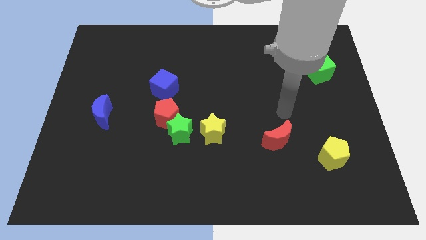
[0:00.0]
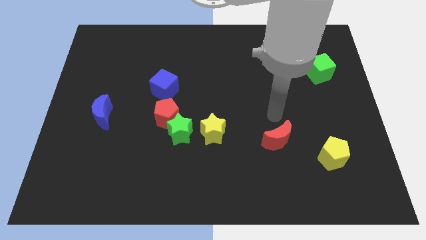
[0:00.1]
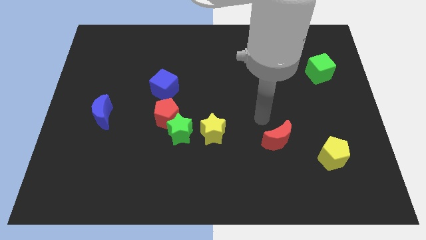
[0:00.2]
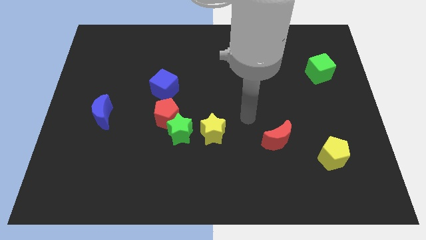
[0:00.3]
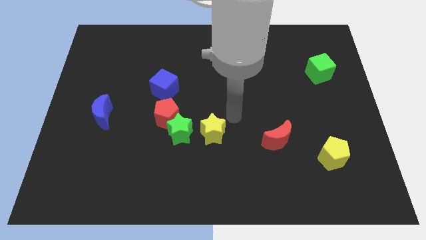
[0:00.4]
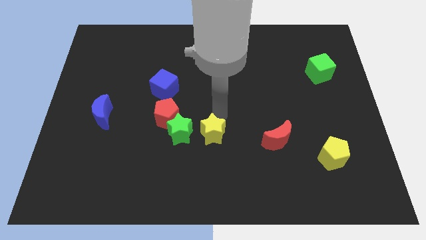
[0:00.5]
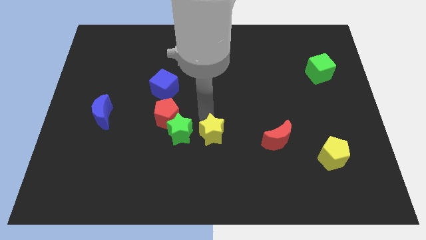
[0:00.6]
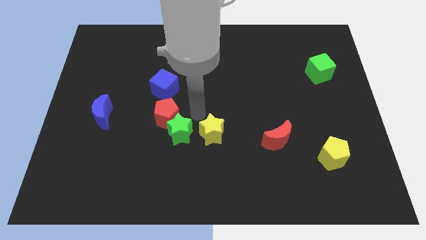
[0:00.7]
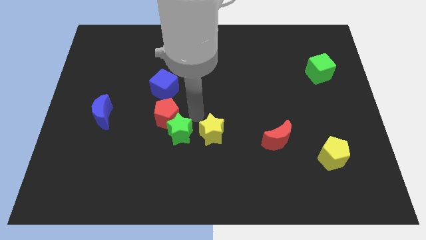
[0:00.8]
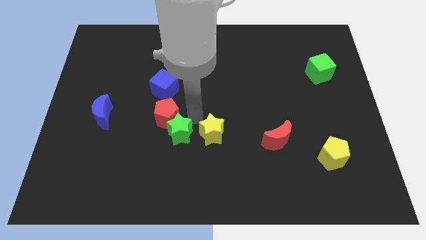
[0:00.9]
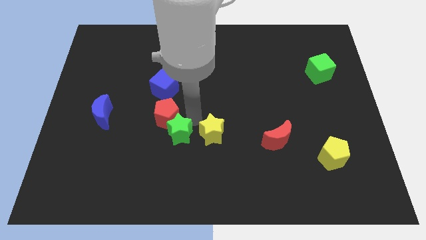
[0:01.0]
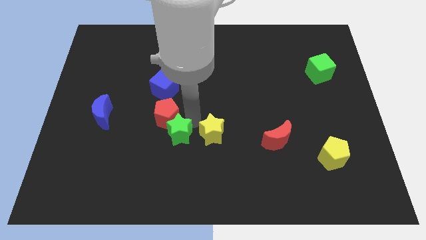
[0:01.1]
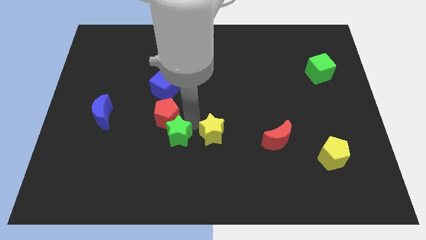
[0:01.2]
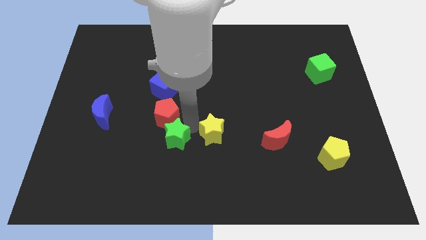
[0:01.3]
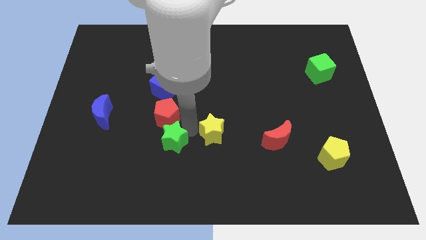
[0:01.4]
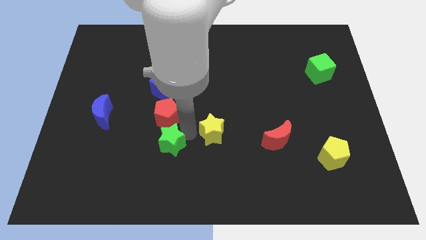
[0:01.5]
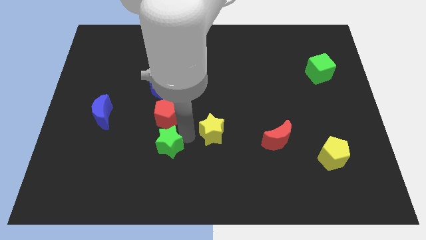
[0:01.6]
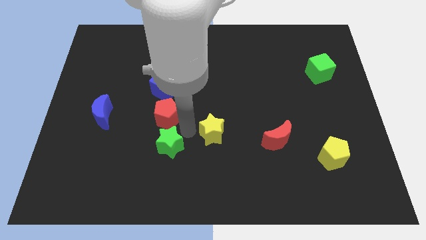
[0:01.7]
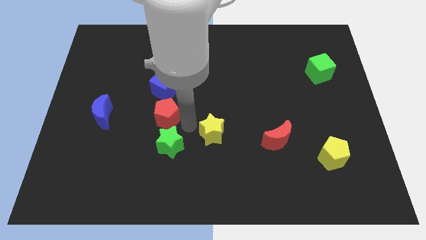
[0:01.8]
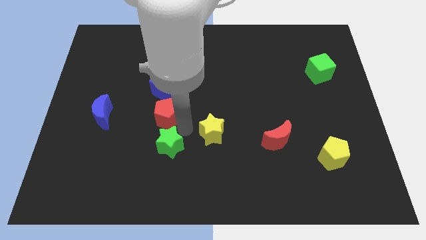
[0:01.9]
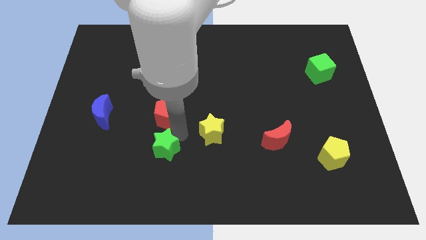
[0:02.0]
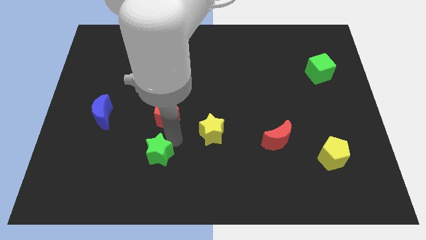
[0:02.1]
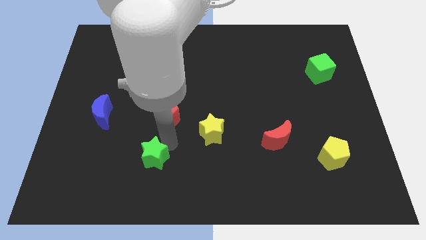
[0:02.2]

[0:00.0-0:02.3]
pull the green star apart from the red pentagon and yellow star

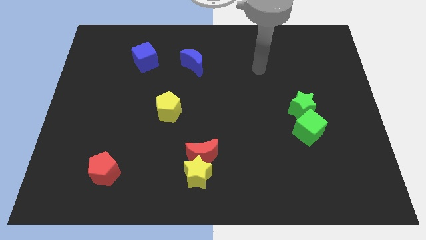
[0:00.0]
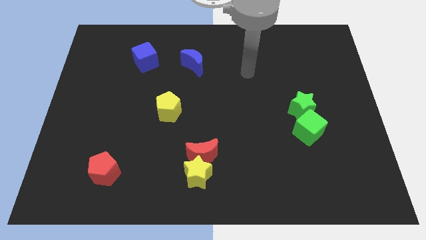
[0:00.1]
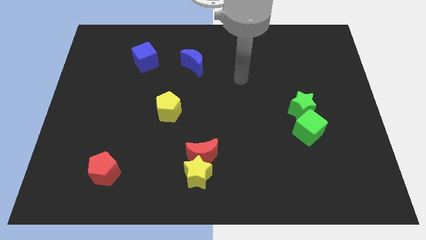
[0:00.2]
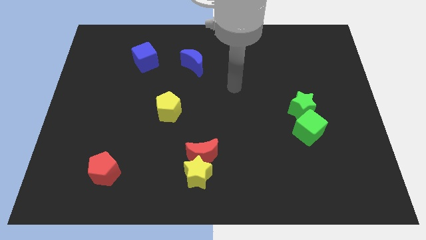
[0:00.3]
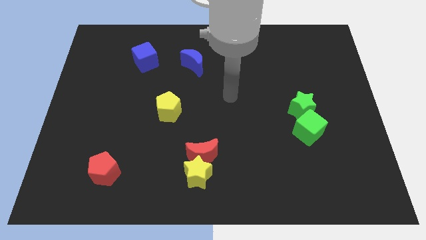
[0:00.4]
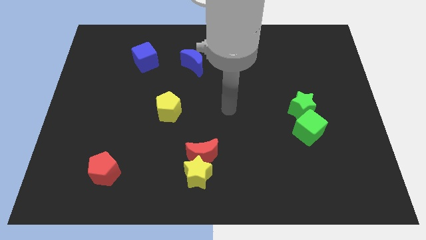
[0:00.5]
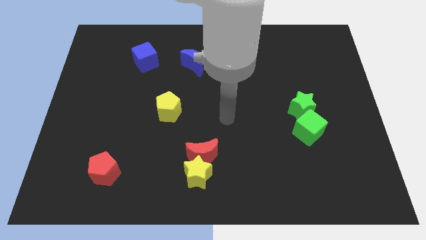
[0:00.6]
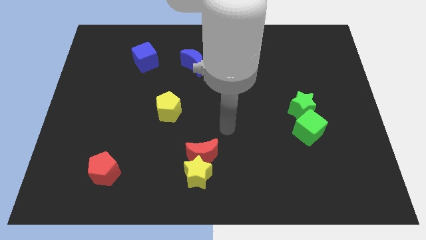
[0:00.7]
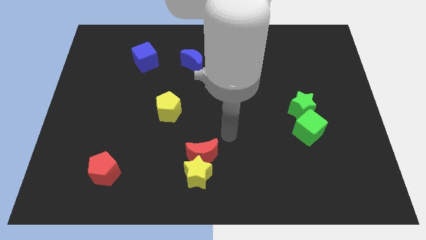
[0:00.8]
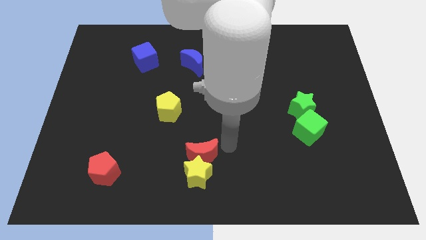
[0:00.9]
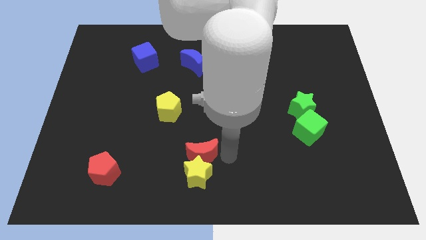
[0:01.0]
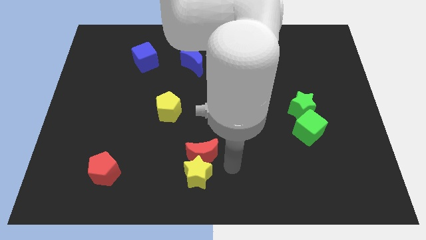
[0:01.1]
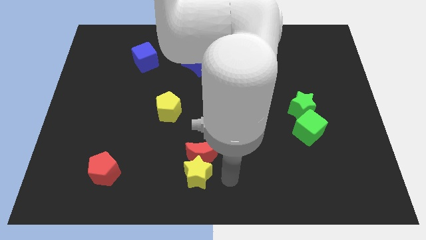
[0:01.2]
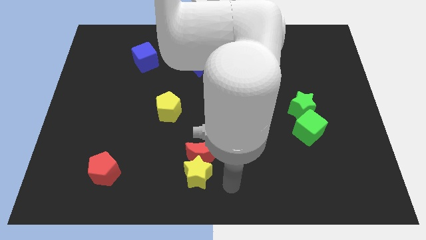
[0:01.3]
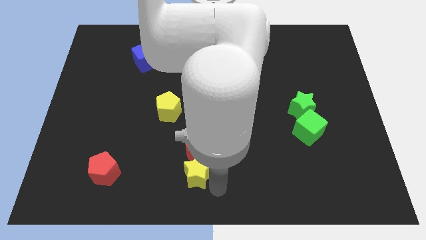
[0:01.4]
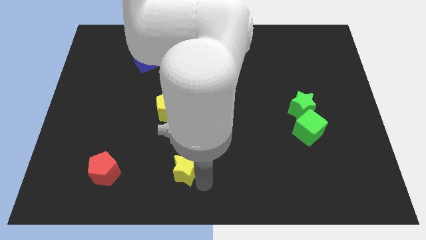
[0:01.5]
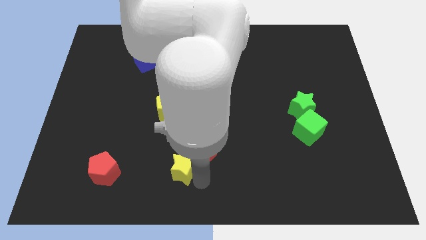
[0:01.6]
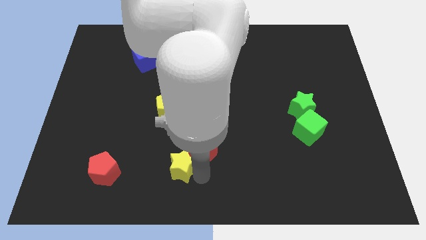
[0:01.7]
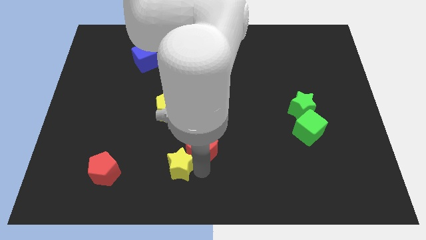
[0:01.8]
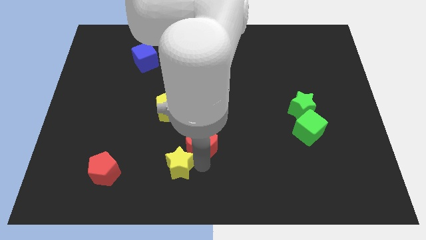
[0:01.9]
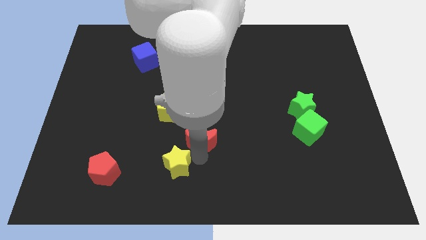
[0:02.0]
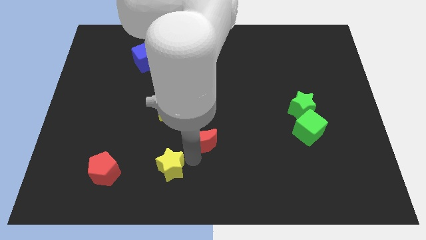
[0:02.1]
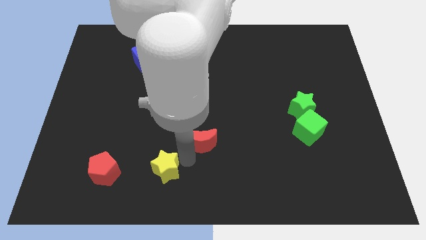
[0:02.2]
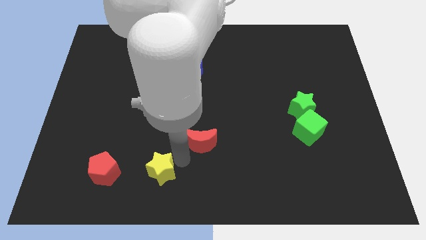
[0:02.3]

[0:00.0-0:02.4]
move the red moon away from the yellow star

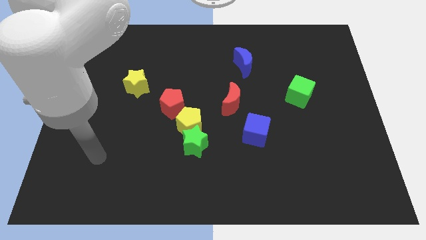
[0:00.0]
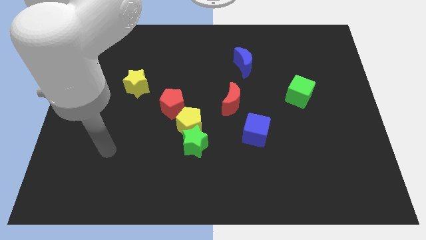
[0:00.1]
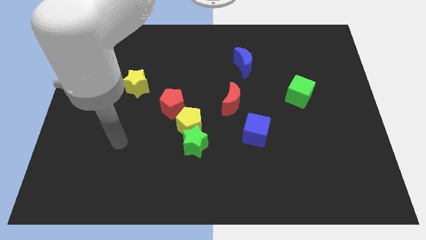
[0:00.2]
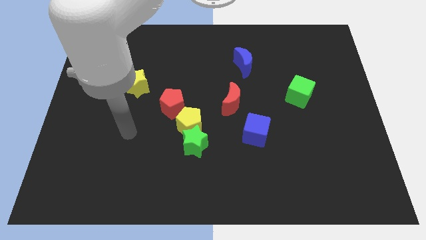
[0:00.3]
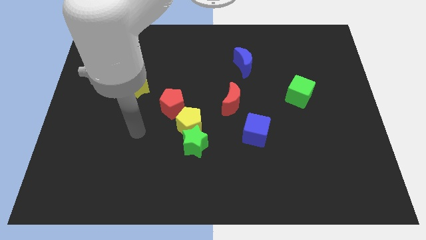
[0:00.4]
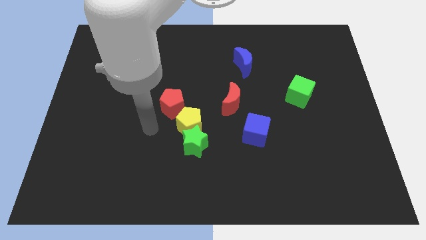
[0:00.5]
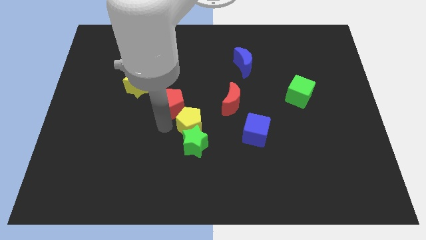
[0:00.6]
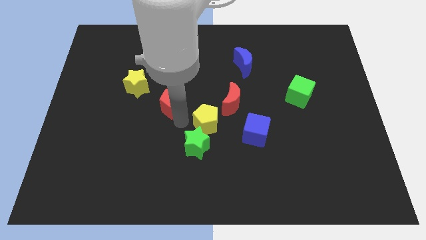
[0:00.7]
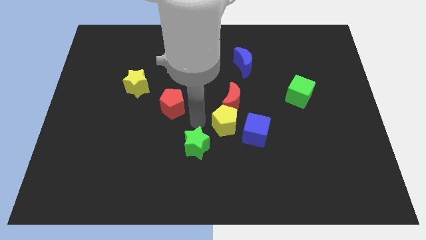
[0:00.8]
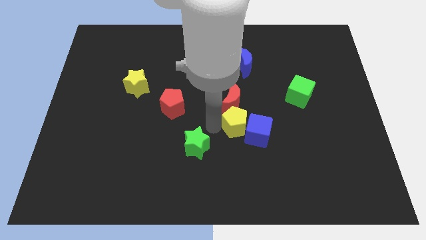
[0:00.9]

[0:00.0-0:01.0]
pull the green star apart from the yellow pentagon

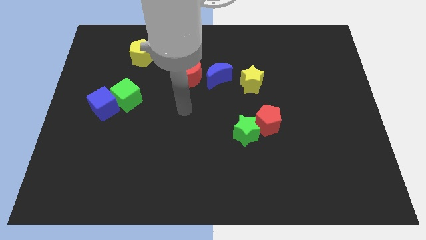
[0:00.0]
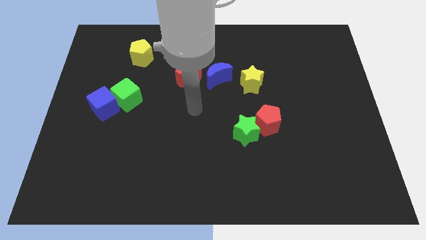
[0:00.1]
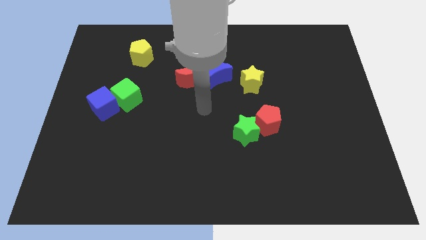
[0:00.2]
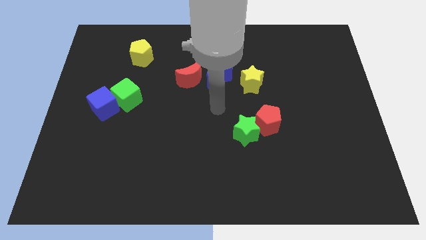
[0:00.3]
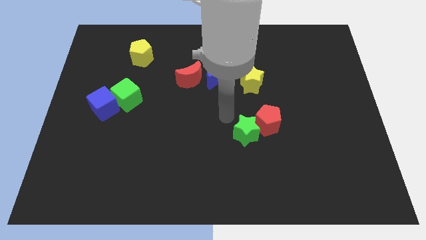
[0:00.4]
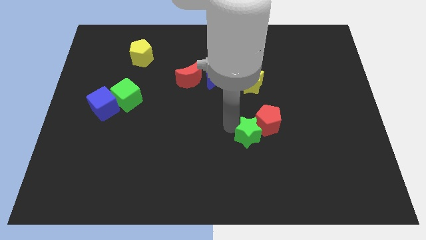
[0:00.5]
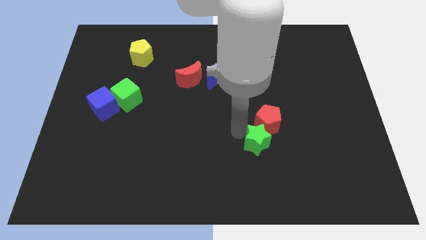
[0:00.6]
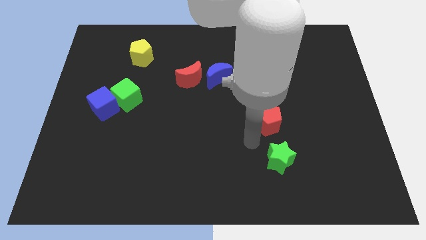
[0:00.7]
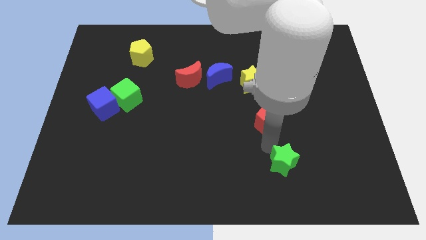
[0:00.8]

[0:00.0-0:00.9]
pull the red pentagon apart from the green star

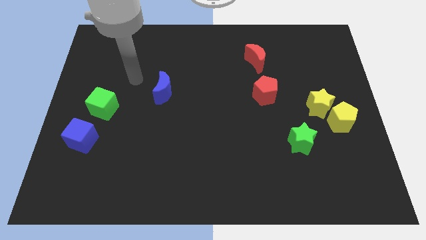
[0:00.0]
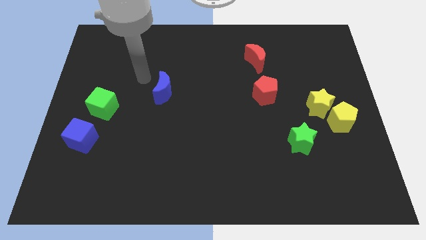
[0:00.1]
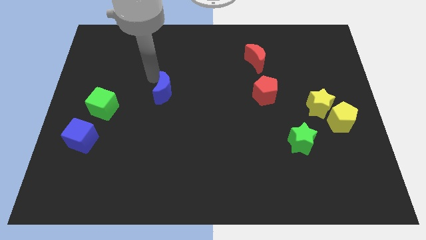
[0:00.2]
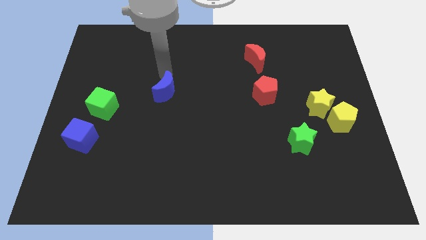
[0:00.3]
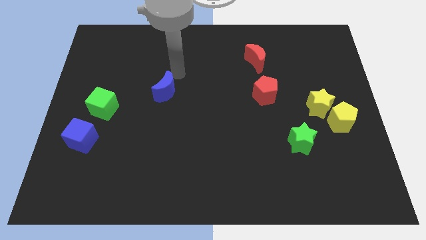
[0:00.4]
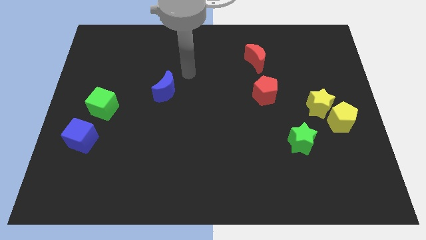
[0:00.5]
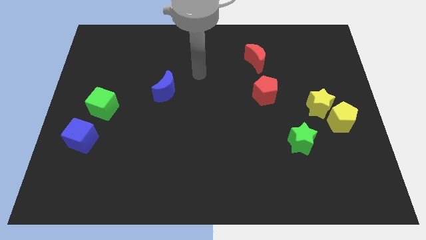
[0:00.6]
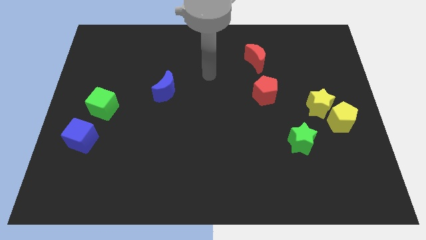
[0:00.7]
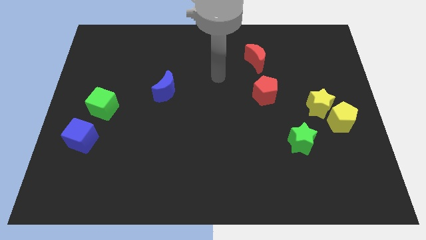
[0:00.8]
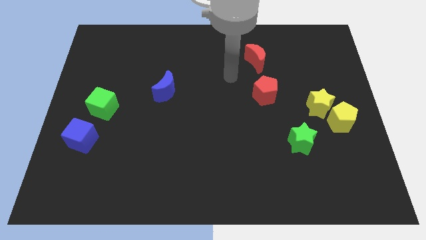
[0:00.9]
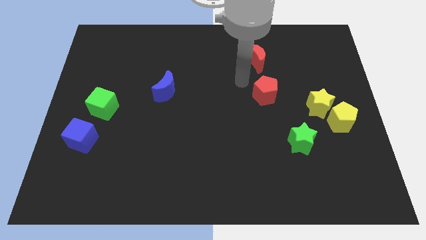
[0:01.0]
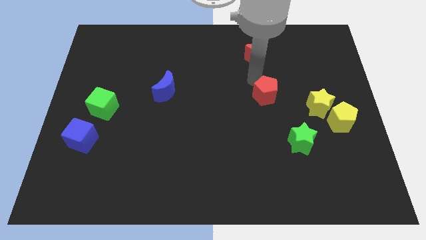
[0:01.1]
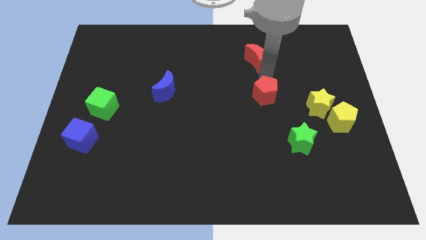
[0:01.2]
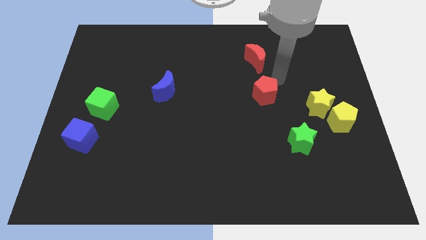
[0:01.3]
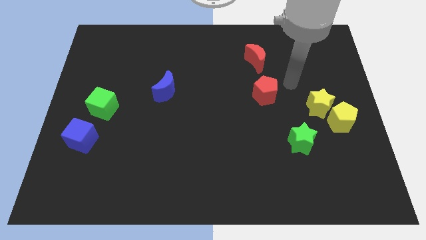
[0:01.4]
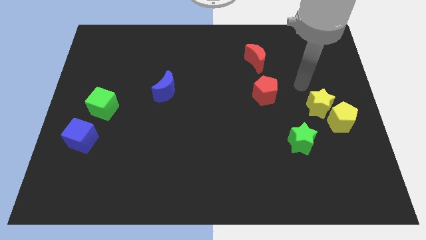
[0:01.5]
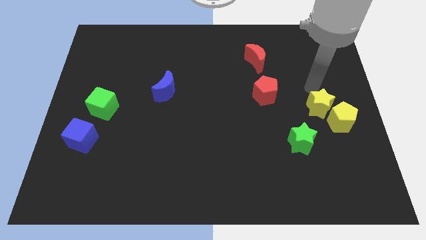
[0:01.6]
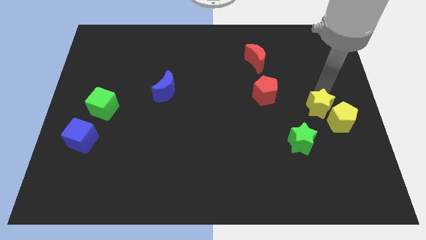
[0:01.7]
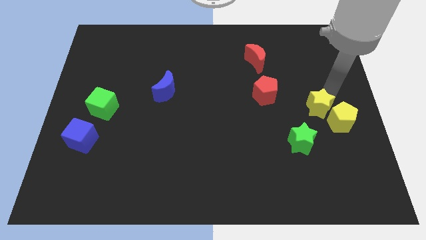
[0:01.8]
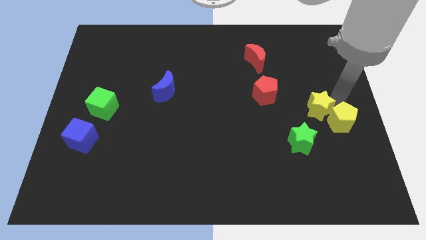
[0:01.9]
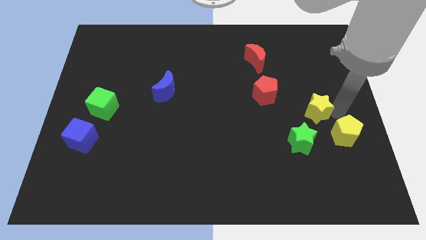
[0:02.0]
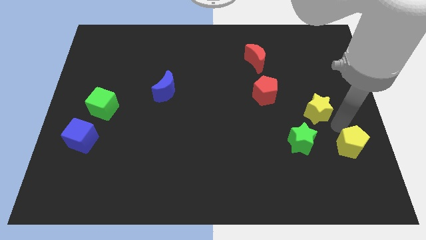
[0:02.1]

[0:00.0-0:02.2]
move the yellow star away from the yellow pentagon

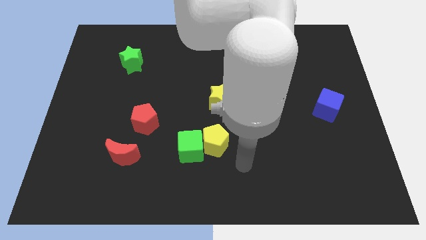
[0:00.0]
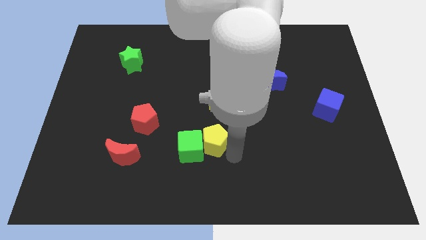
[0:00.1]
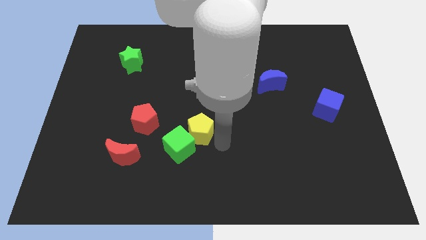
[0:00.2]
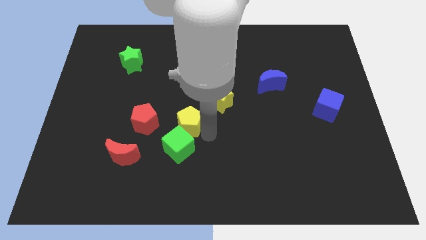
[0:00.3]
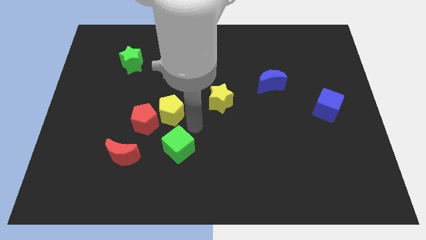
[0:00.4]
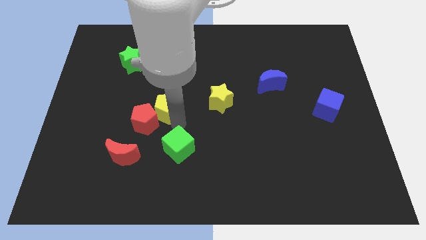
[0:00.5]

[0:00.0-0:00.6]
separate the green cube from the yellow pentagon

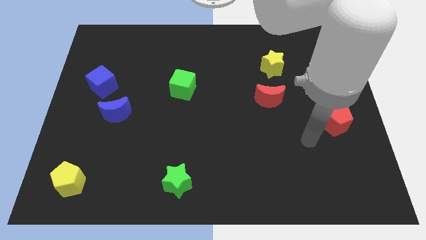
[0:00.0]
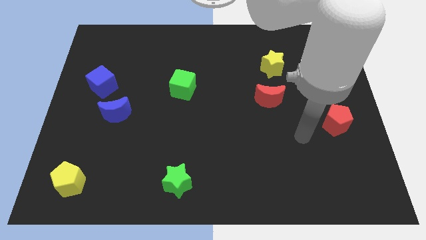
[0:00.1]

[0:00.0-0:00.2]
move the blue moon away from the blue cube
